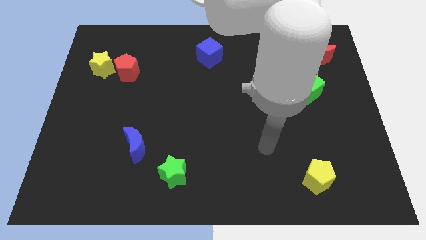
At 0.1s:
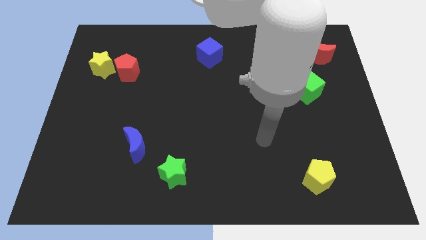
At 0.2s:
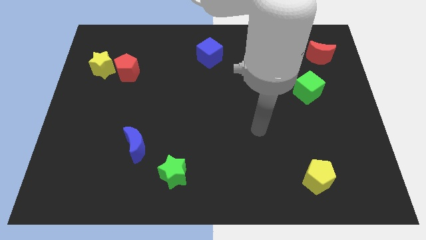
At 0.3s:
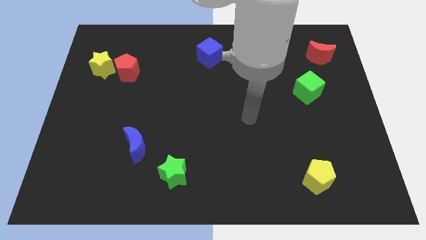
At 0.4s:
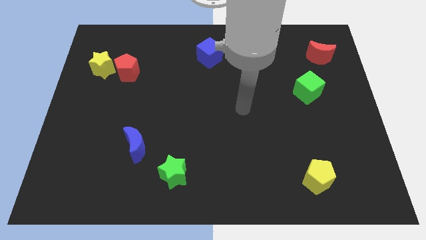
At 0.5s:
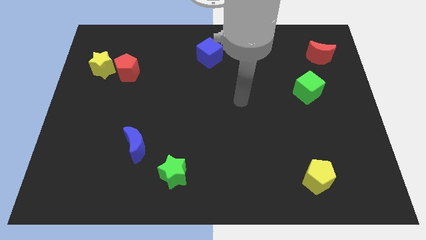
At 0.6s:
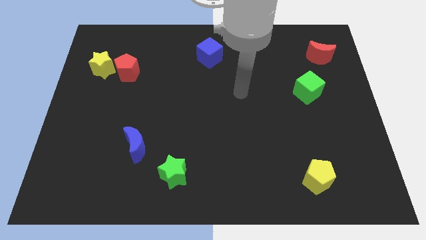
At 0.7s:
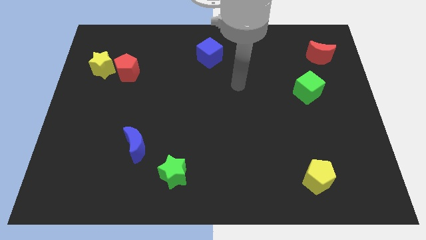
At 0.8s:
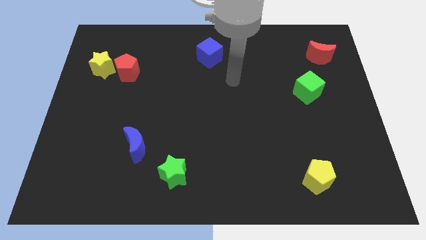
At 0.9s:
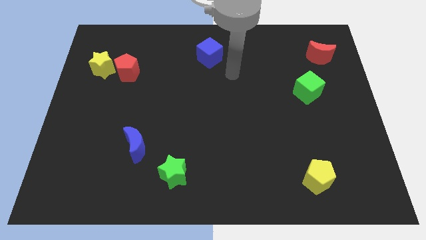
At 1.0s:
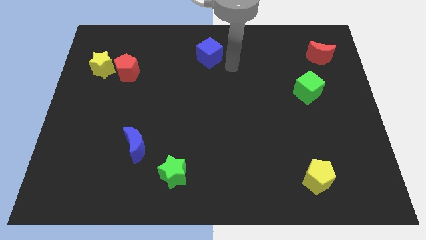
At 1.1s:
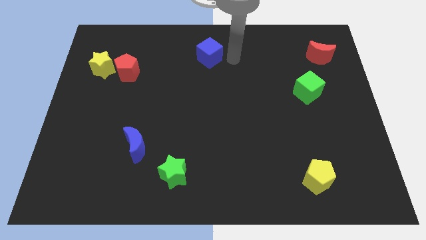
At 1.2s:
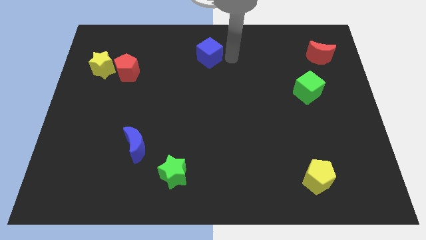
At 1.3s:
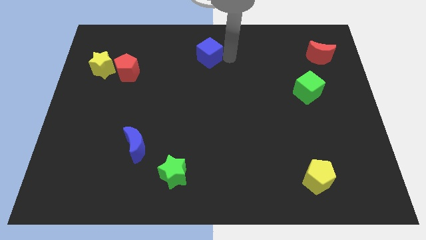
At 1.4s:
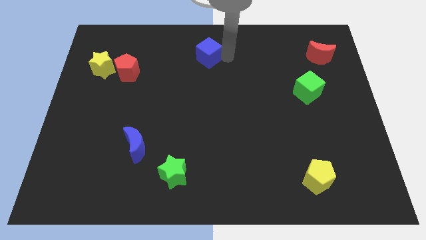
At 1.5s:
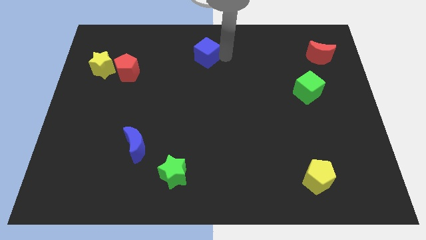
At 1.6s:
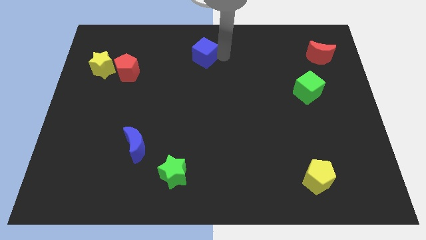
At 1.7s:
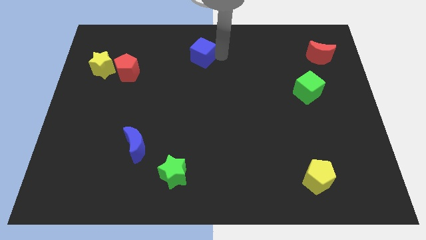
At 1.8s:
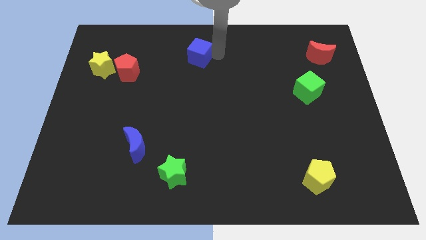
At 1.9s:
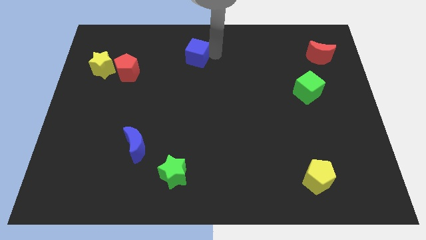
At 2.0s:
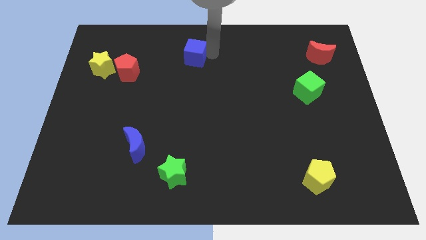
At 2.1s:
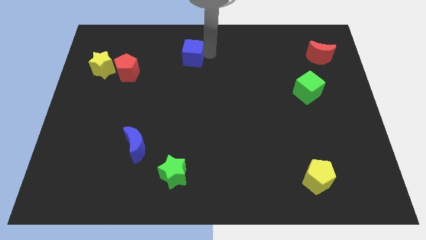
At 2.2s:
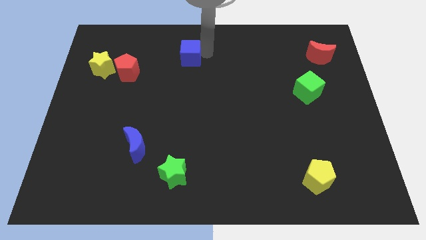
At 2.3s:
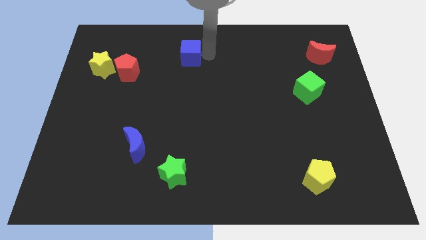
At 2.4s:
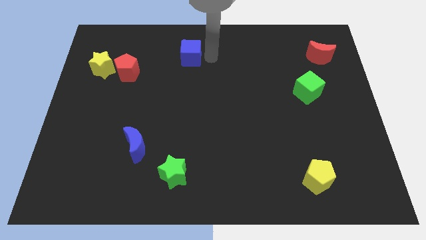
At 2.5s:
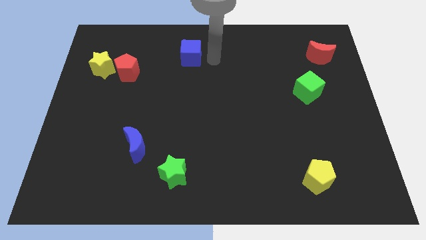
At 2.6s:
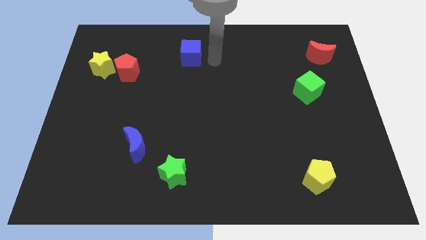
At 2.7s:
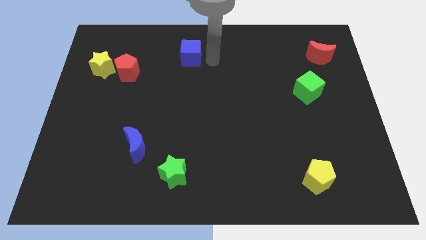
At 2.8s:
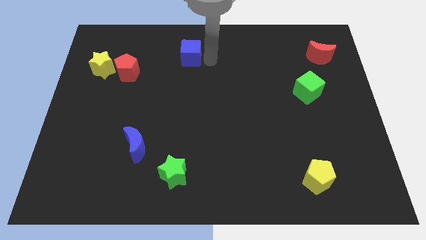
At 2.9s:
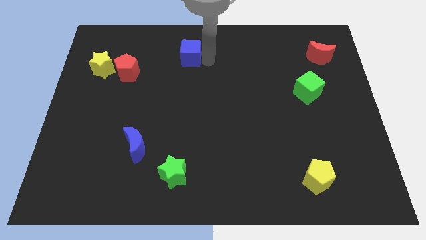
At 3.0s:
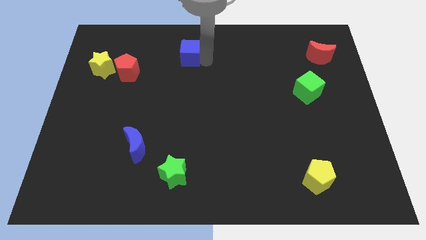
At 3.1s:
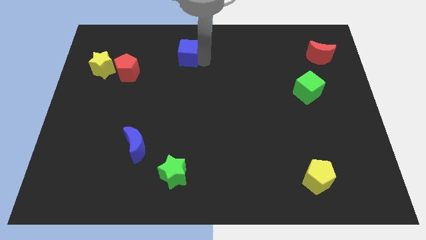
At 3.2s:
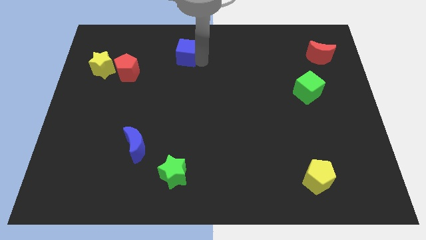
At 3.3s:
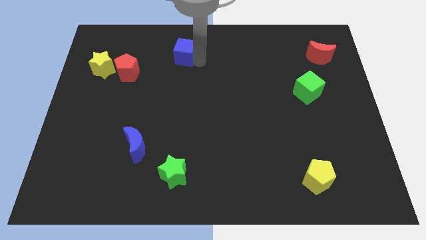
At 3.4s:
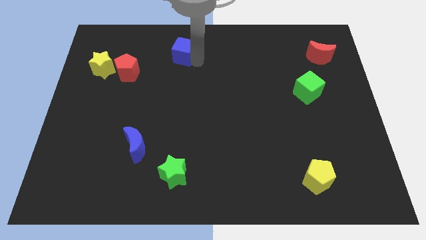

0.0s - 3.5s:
move the blue cube to the left somewhat

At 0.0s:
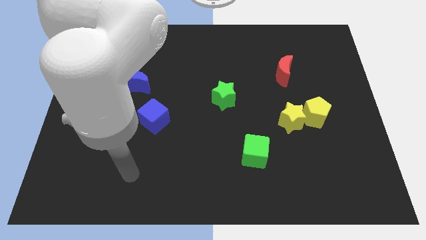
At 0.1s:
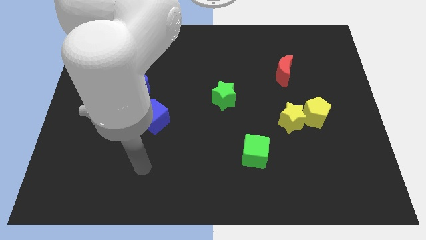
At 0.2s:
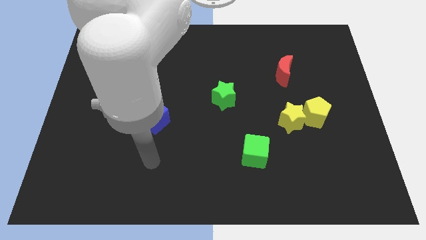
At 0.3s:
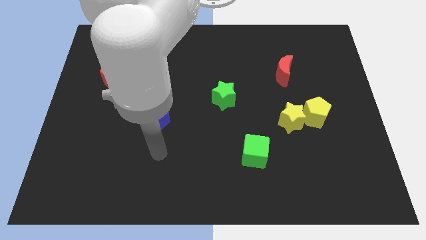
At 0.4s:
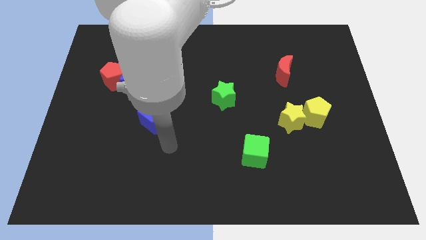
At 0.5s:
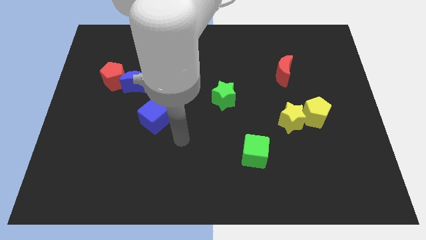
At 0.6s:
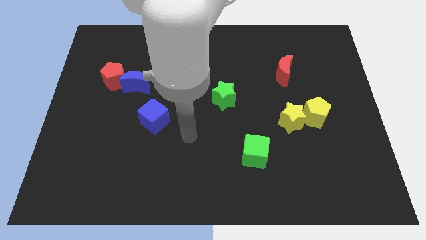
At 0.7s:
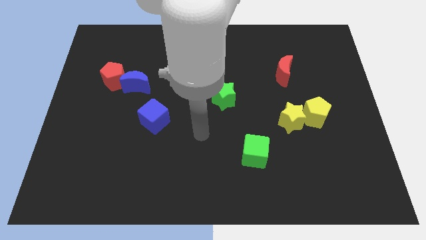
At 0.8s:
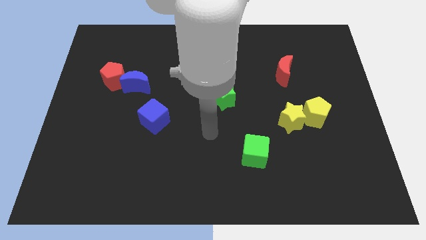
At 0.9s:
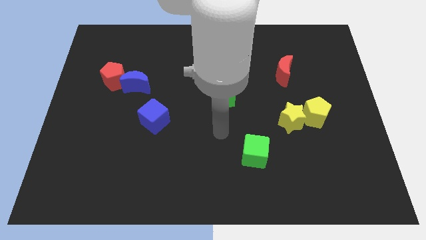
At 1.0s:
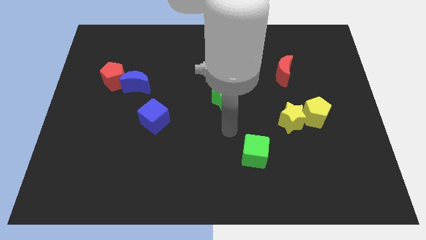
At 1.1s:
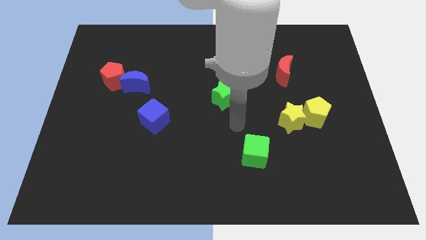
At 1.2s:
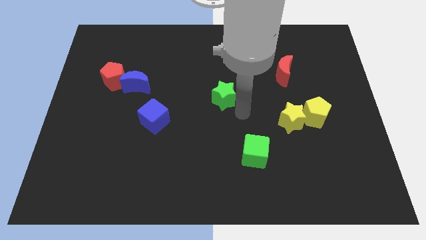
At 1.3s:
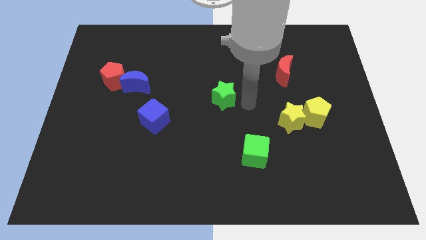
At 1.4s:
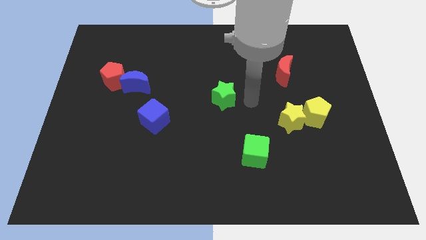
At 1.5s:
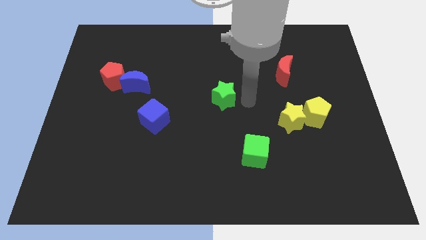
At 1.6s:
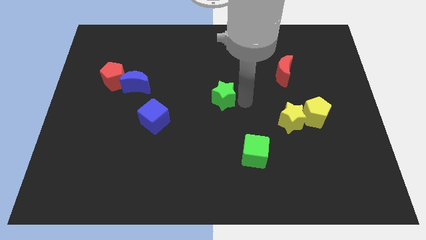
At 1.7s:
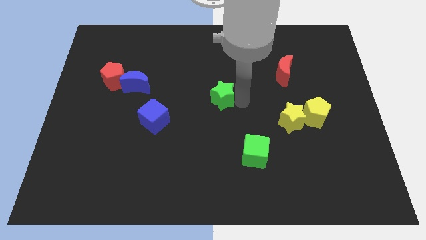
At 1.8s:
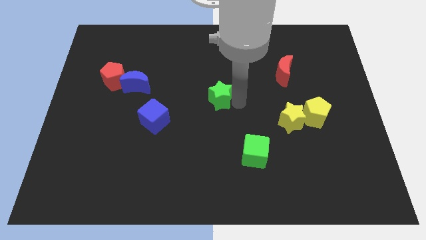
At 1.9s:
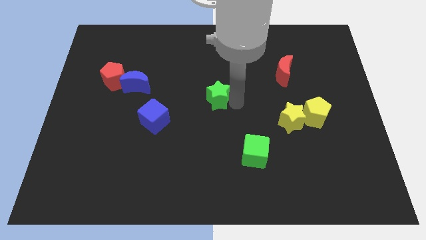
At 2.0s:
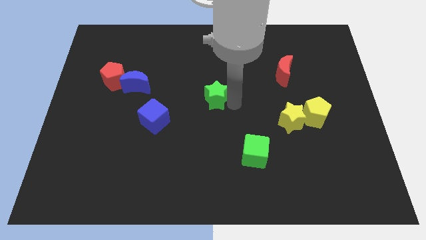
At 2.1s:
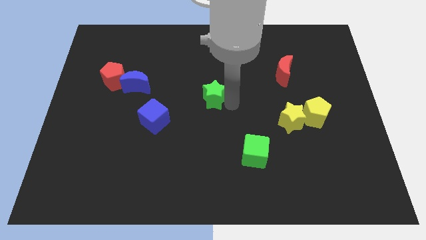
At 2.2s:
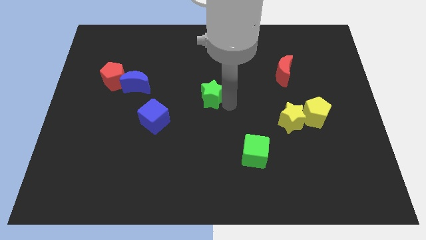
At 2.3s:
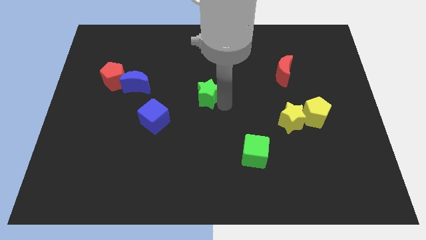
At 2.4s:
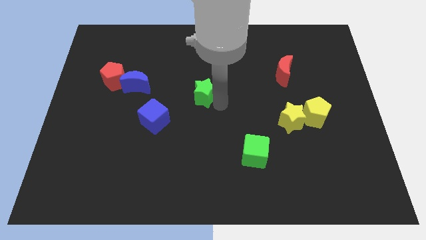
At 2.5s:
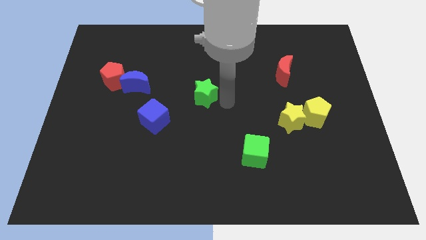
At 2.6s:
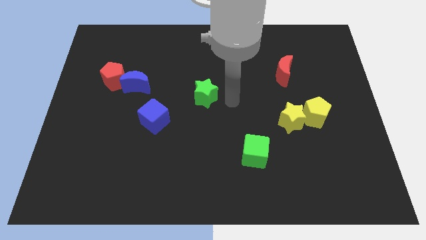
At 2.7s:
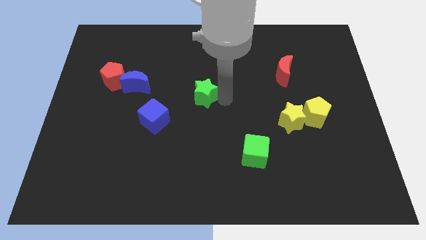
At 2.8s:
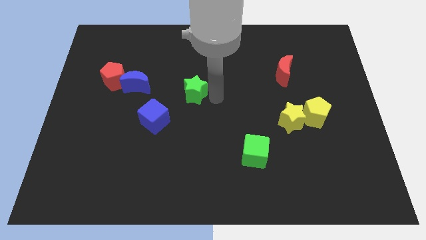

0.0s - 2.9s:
push the green star left a bit

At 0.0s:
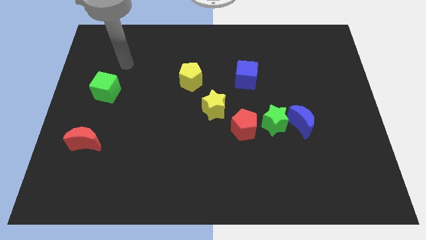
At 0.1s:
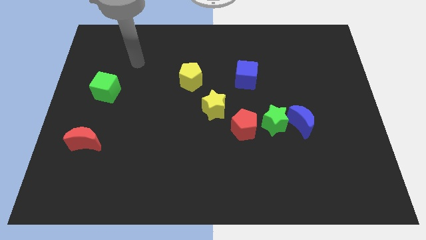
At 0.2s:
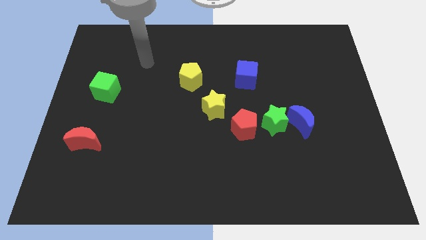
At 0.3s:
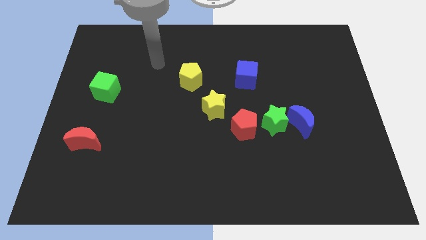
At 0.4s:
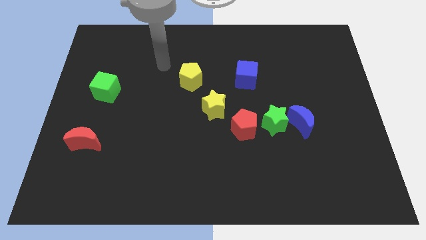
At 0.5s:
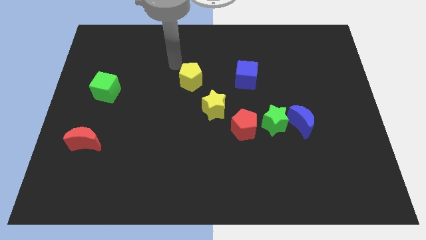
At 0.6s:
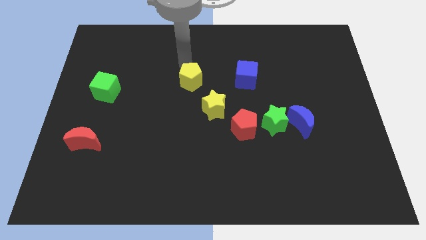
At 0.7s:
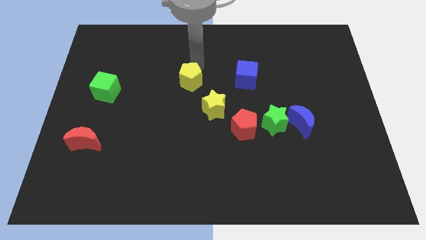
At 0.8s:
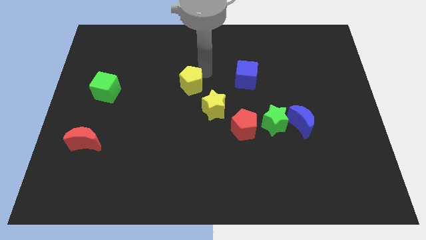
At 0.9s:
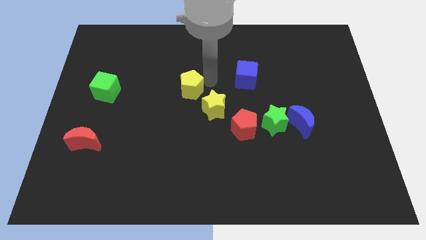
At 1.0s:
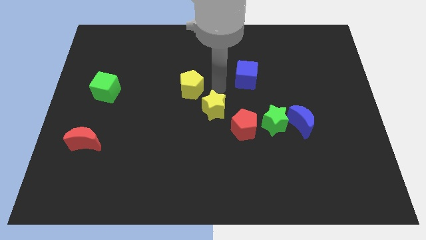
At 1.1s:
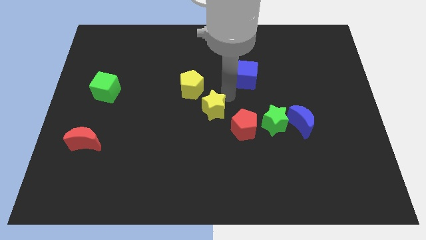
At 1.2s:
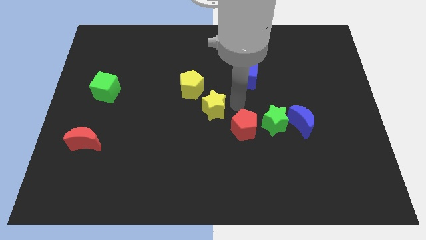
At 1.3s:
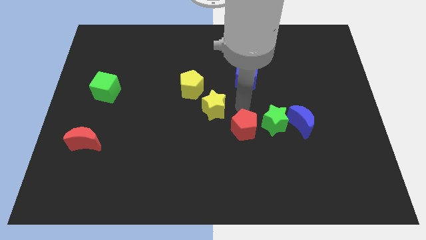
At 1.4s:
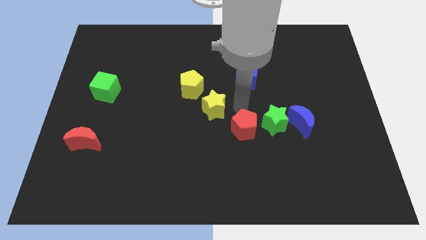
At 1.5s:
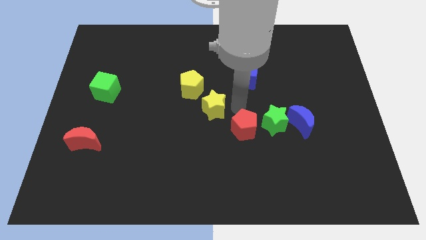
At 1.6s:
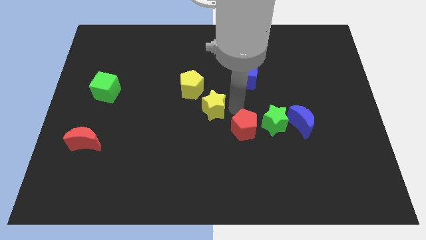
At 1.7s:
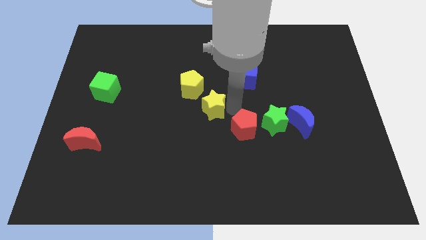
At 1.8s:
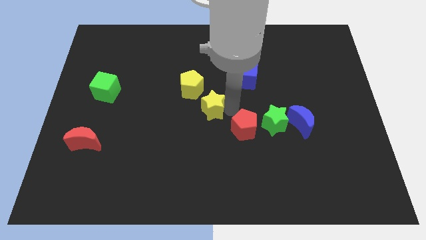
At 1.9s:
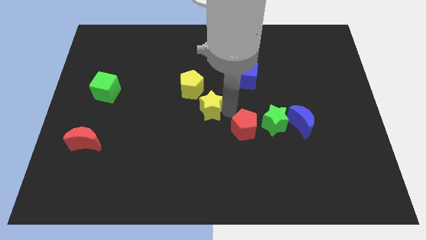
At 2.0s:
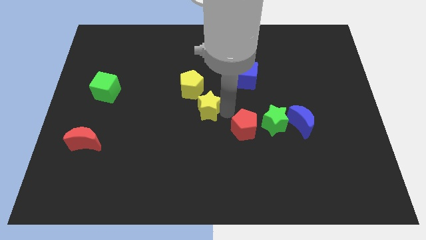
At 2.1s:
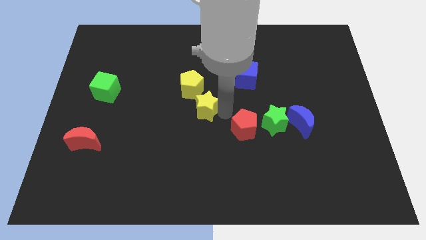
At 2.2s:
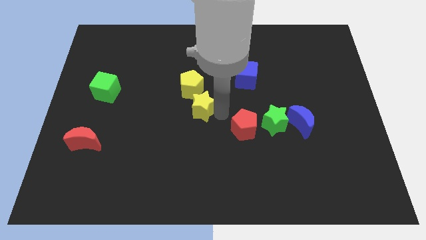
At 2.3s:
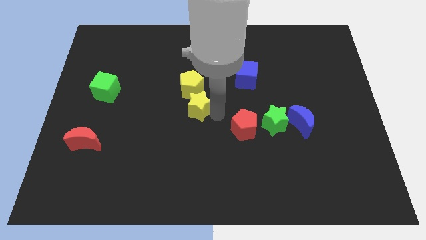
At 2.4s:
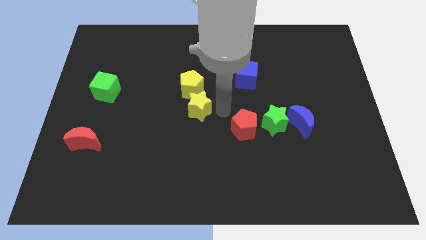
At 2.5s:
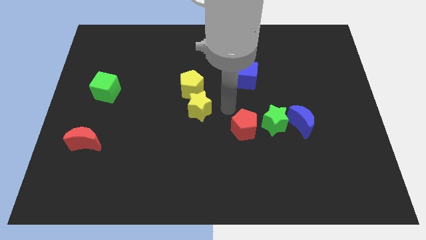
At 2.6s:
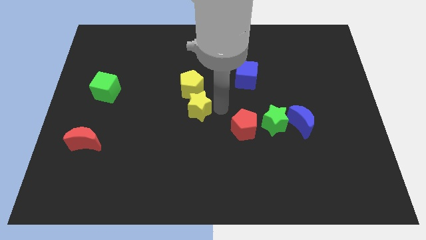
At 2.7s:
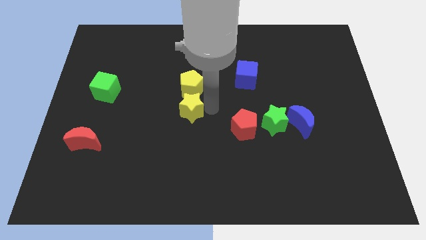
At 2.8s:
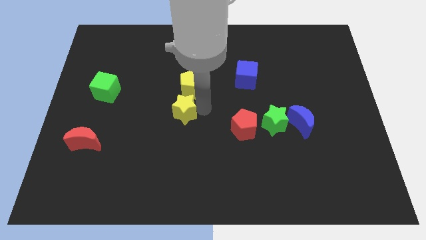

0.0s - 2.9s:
push the yellow star to the left a little bit
